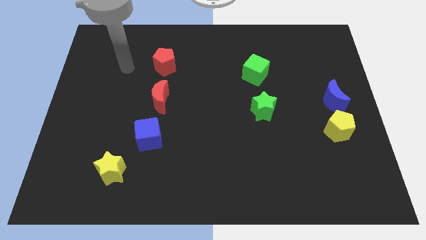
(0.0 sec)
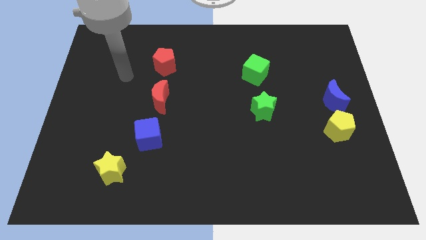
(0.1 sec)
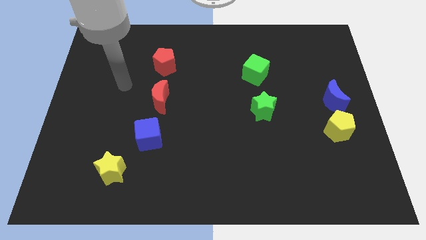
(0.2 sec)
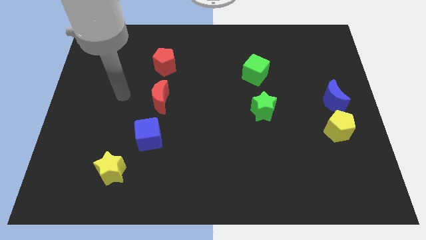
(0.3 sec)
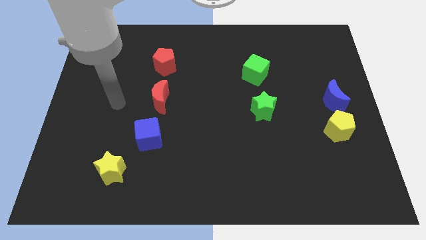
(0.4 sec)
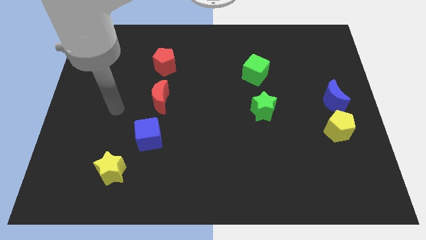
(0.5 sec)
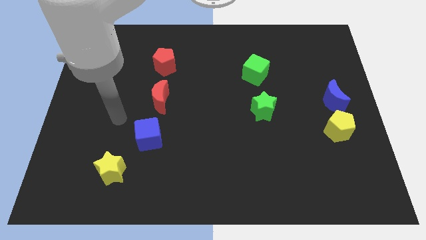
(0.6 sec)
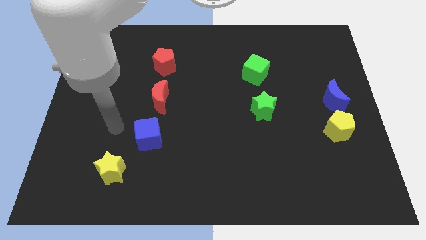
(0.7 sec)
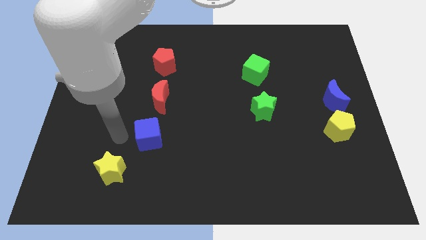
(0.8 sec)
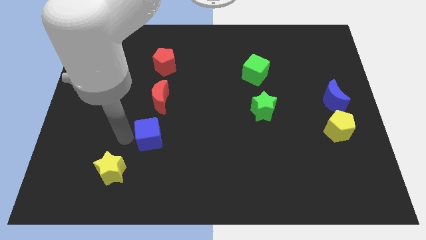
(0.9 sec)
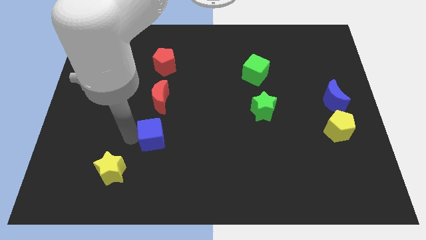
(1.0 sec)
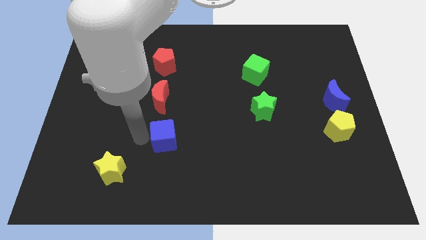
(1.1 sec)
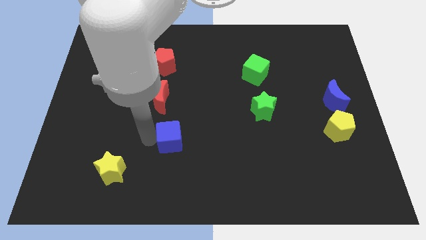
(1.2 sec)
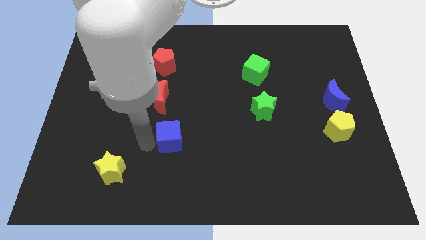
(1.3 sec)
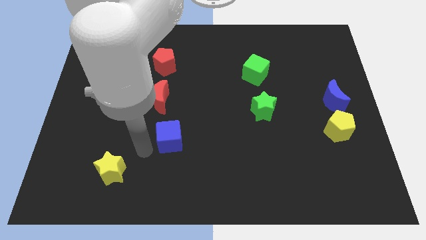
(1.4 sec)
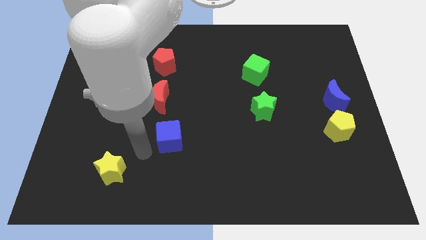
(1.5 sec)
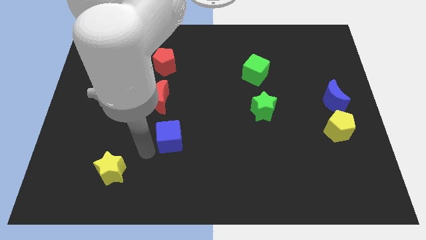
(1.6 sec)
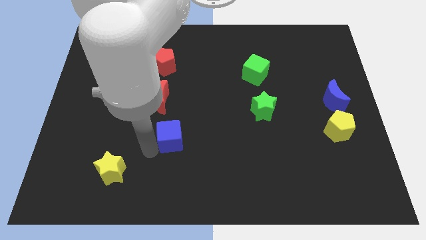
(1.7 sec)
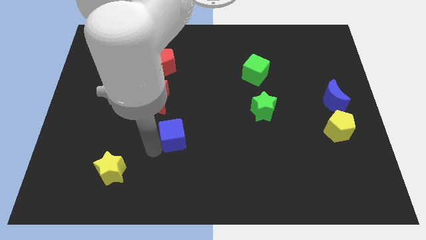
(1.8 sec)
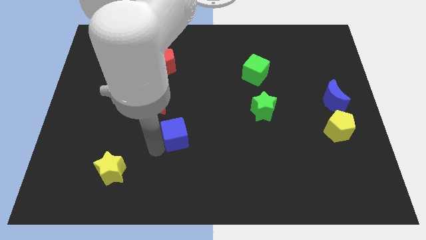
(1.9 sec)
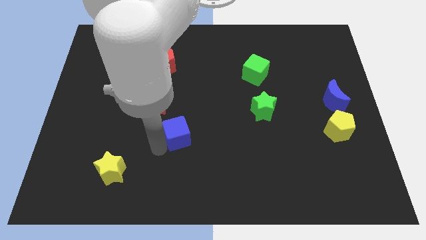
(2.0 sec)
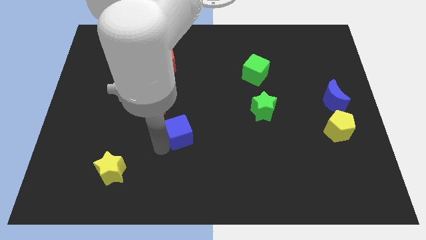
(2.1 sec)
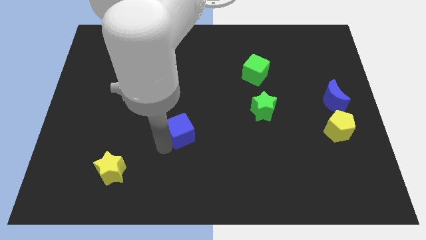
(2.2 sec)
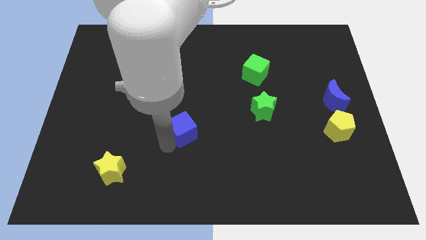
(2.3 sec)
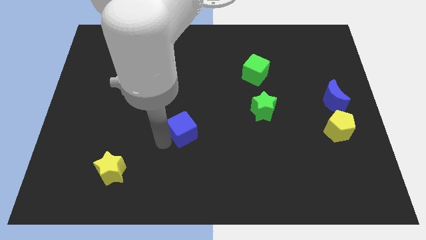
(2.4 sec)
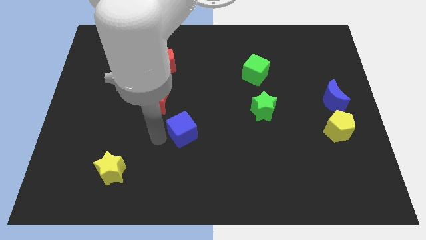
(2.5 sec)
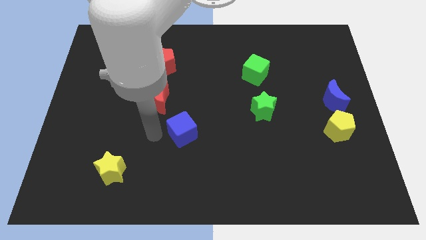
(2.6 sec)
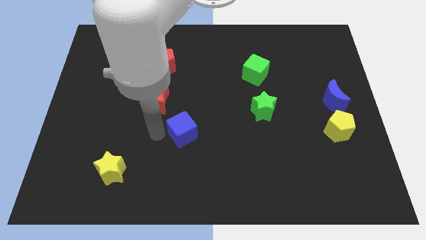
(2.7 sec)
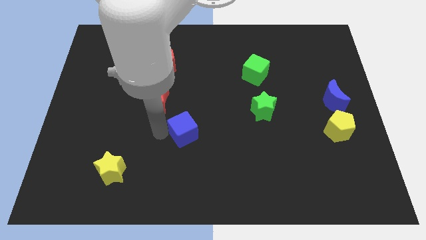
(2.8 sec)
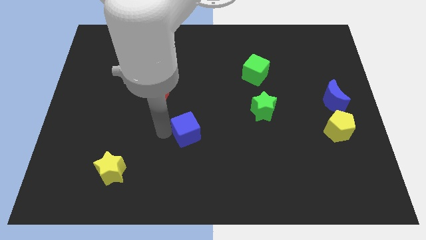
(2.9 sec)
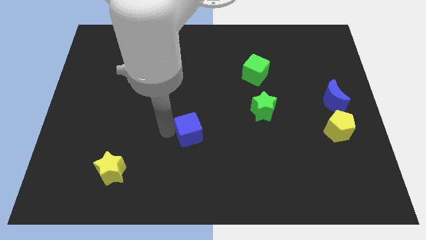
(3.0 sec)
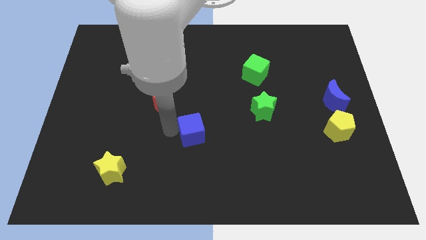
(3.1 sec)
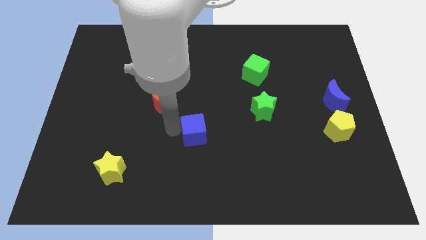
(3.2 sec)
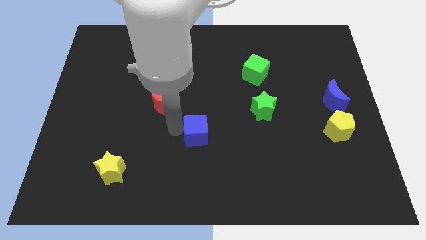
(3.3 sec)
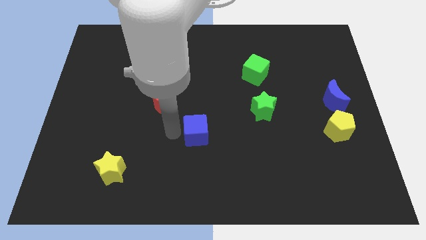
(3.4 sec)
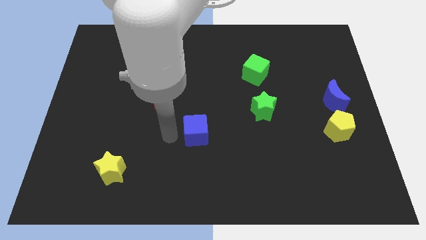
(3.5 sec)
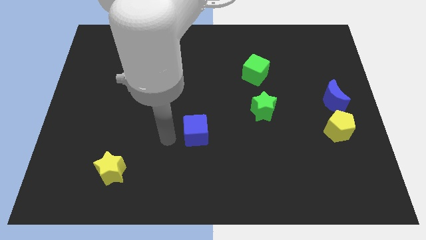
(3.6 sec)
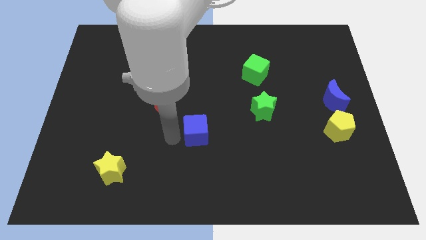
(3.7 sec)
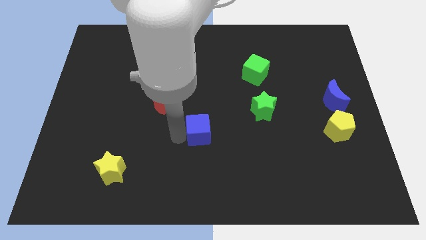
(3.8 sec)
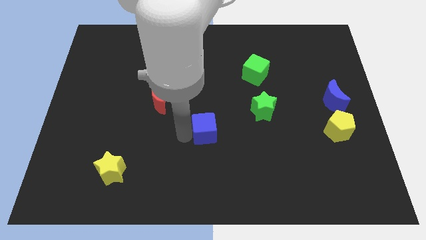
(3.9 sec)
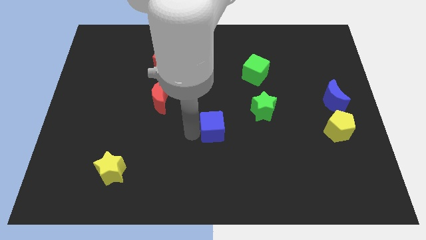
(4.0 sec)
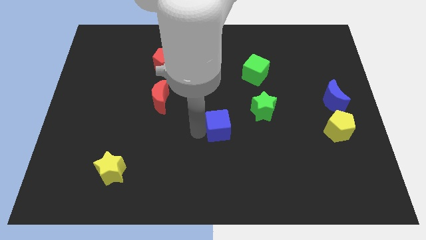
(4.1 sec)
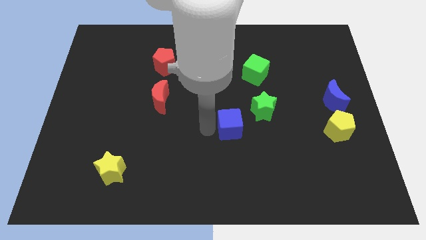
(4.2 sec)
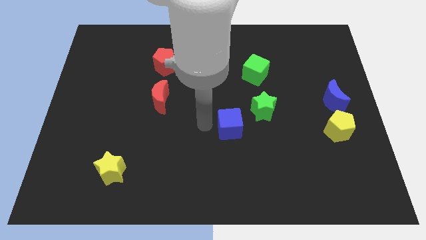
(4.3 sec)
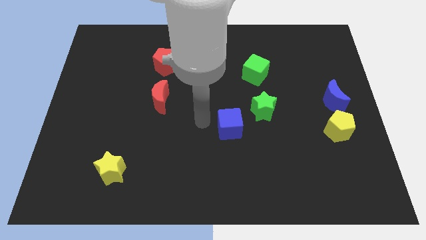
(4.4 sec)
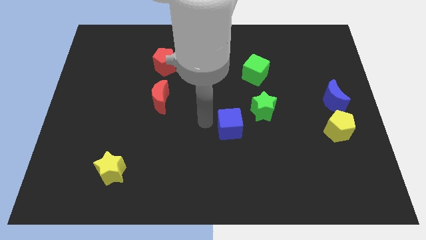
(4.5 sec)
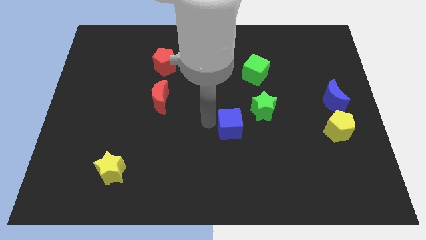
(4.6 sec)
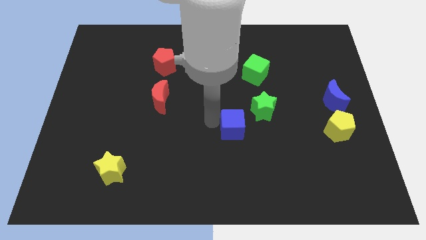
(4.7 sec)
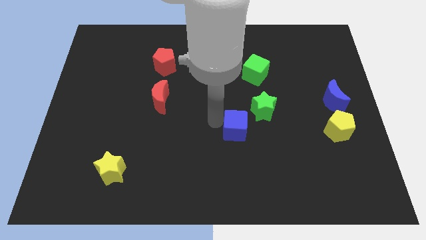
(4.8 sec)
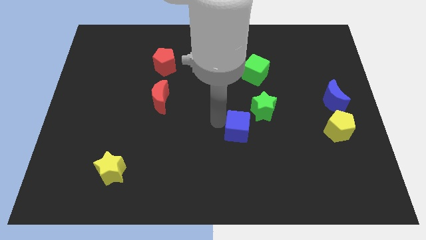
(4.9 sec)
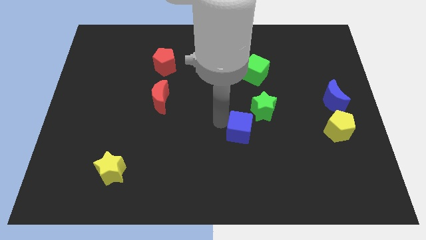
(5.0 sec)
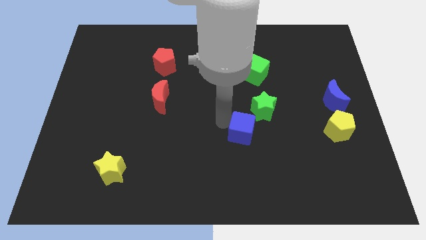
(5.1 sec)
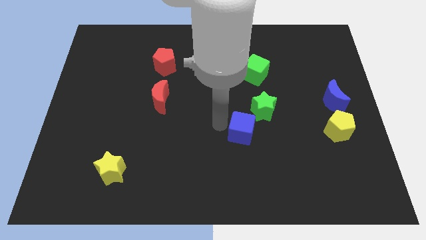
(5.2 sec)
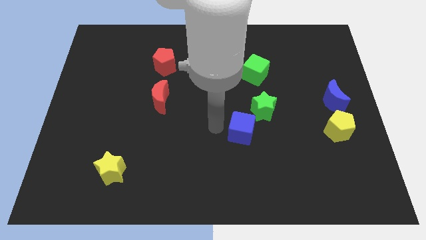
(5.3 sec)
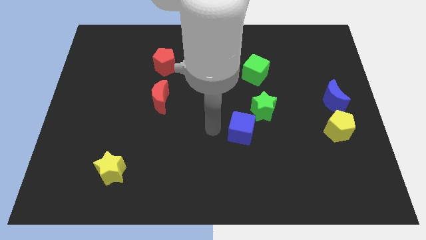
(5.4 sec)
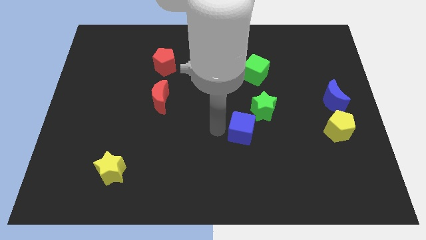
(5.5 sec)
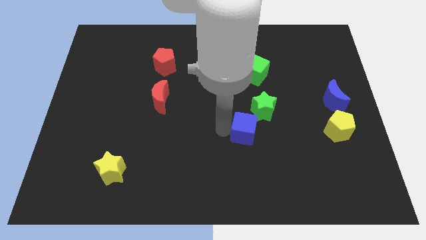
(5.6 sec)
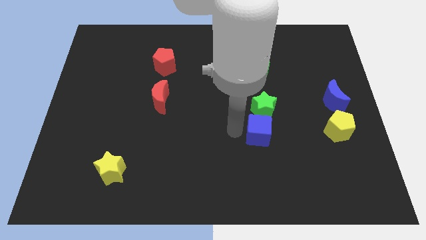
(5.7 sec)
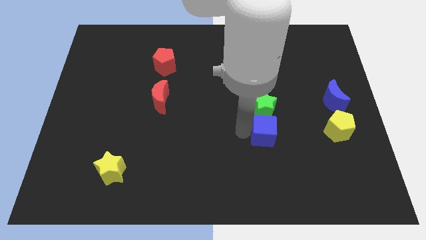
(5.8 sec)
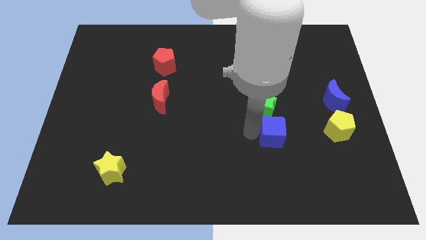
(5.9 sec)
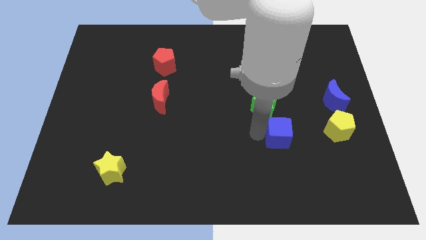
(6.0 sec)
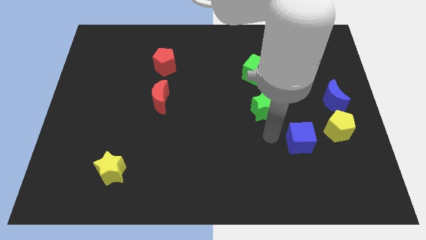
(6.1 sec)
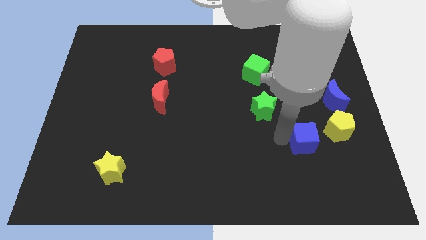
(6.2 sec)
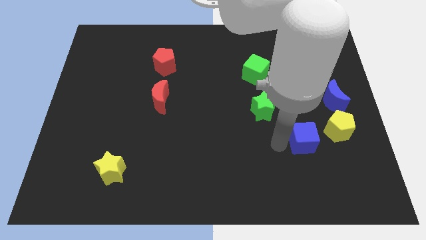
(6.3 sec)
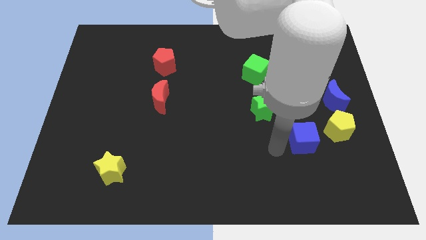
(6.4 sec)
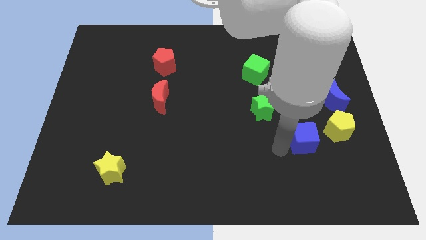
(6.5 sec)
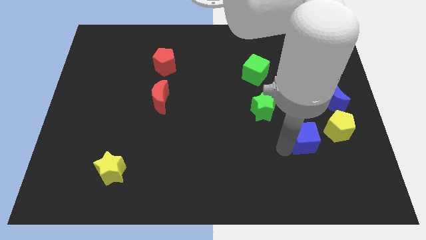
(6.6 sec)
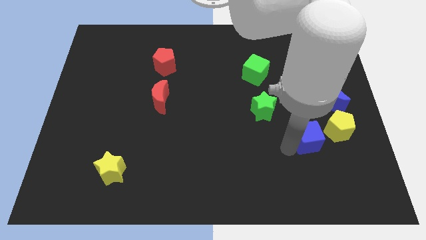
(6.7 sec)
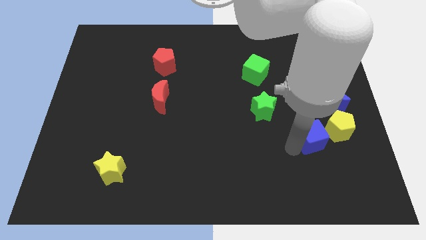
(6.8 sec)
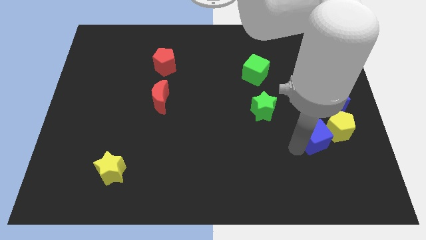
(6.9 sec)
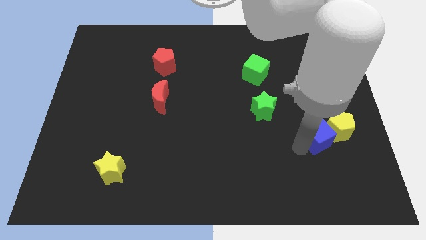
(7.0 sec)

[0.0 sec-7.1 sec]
put the blue cube close to the yellow pentagon
